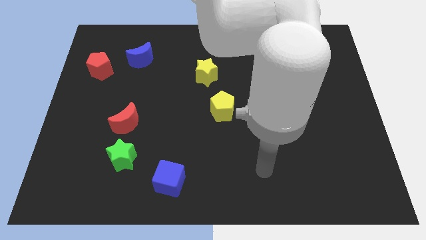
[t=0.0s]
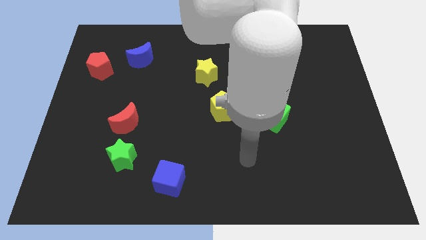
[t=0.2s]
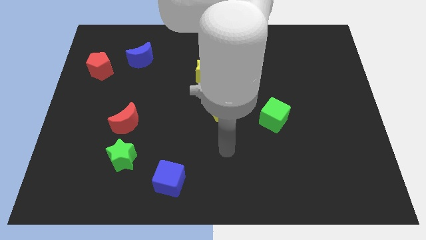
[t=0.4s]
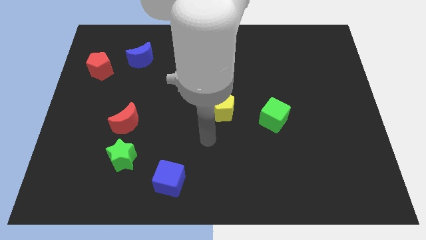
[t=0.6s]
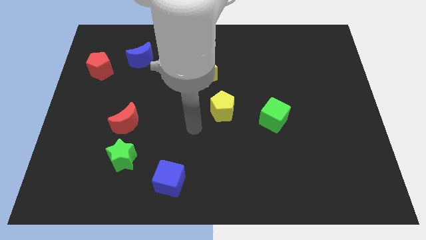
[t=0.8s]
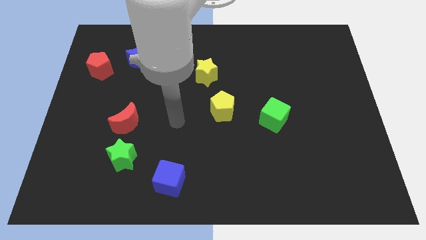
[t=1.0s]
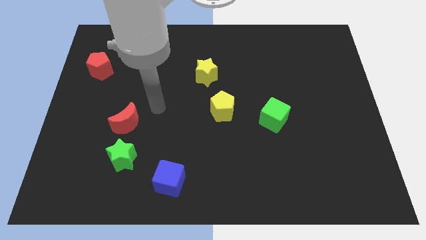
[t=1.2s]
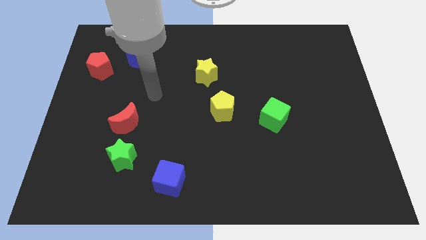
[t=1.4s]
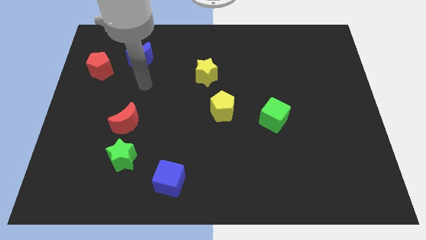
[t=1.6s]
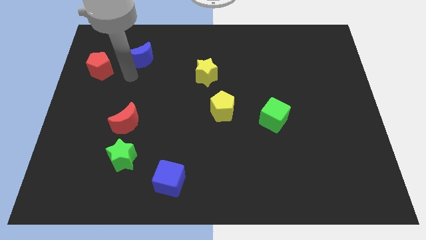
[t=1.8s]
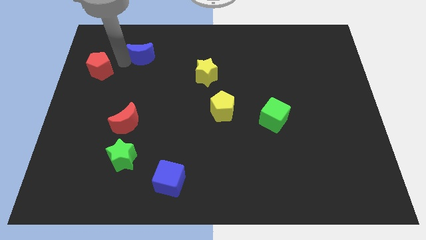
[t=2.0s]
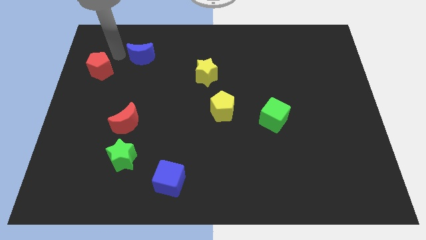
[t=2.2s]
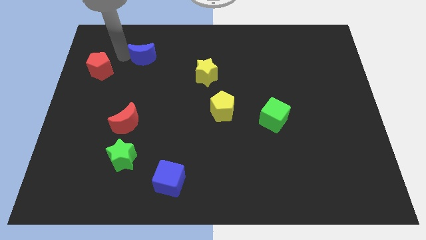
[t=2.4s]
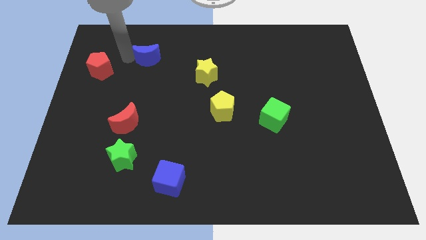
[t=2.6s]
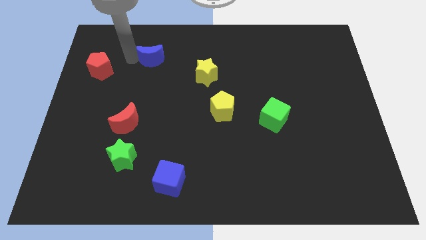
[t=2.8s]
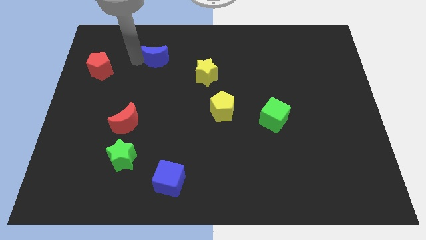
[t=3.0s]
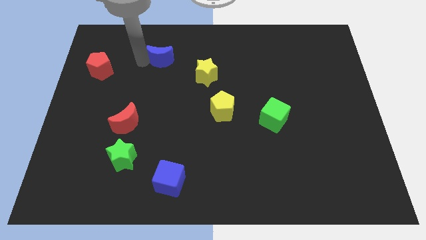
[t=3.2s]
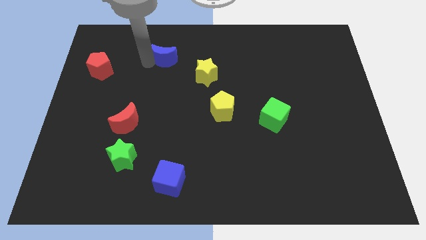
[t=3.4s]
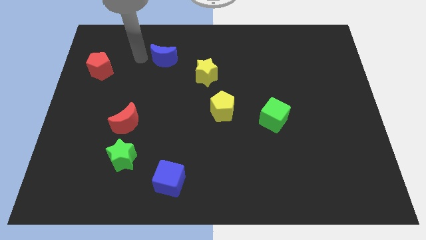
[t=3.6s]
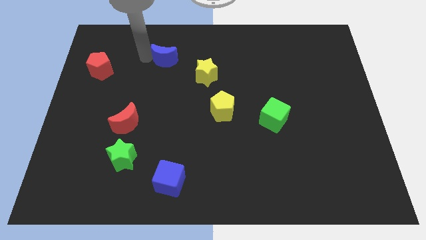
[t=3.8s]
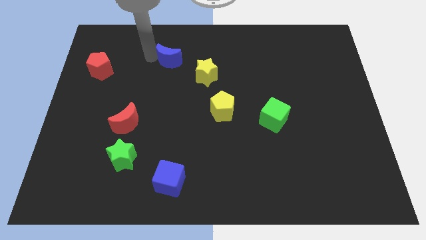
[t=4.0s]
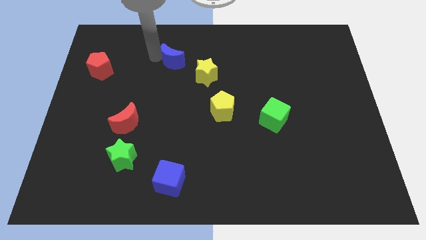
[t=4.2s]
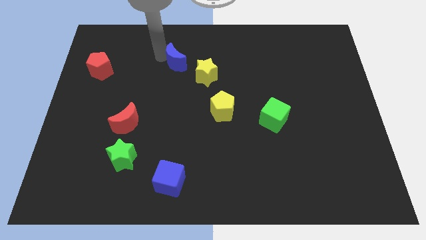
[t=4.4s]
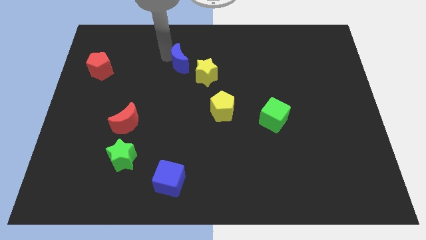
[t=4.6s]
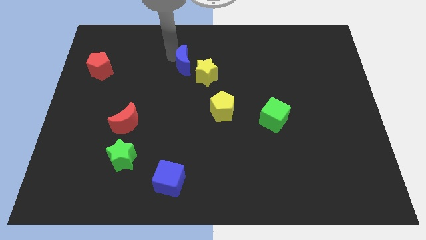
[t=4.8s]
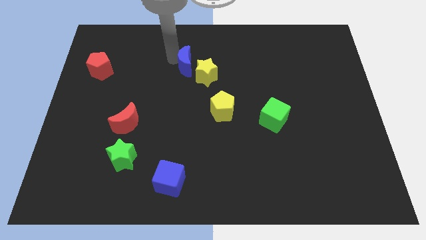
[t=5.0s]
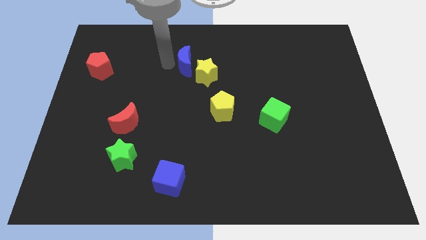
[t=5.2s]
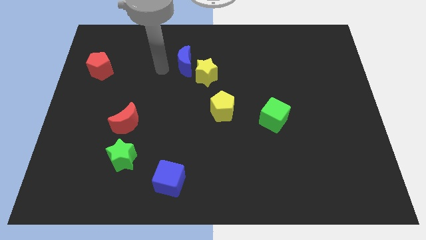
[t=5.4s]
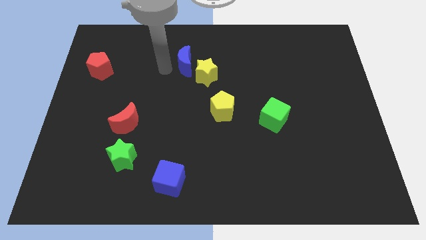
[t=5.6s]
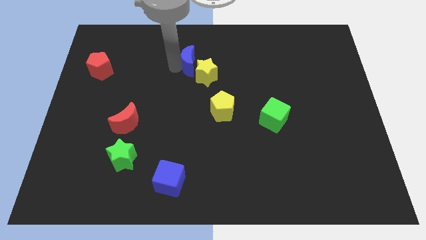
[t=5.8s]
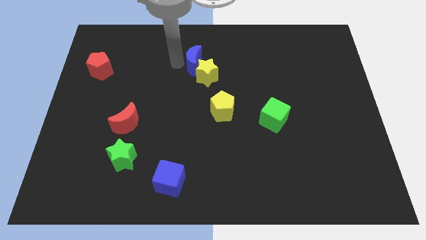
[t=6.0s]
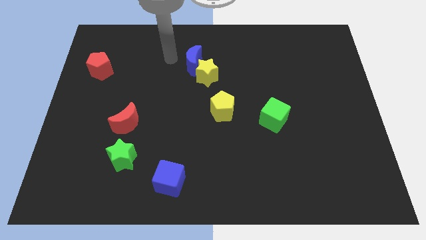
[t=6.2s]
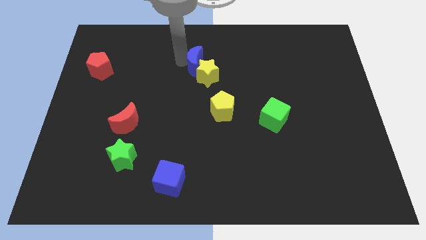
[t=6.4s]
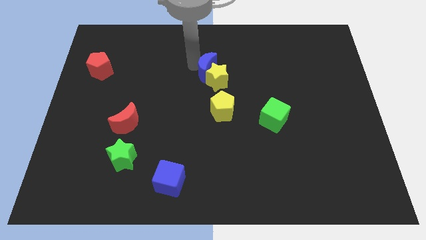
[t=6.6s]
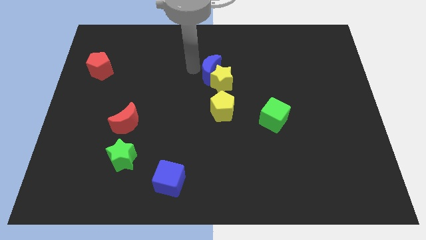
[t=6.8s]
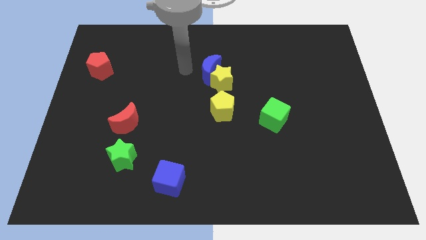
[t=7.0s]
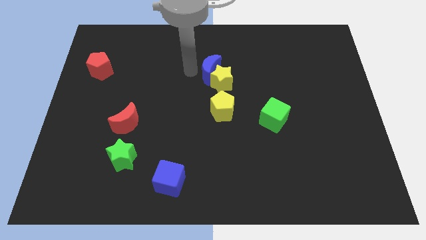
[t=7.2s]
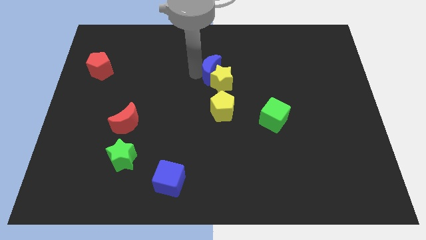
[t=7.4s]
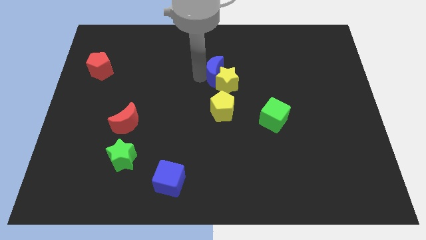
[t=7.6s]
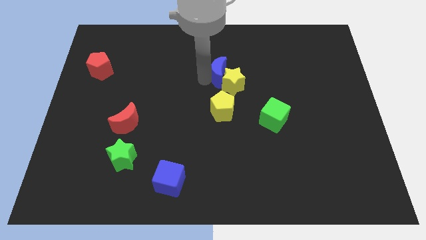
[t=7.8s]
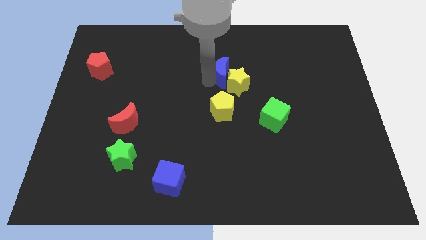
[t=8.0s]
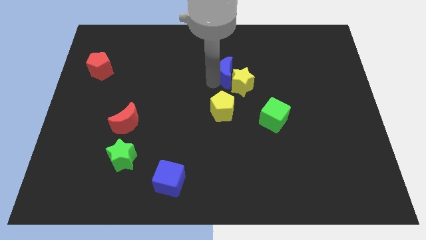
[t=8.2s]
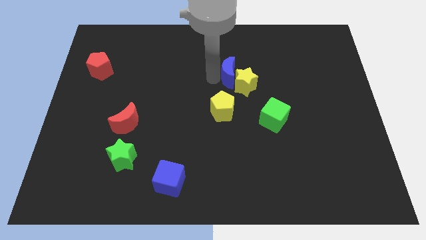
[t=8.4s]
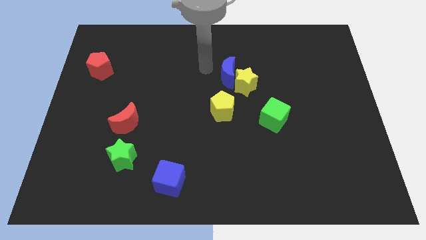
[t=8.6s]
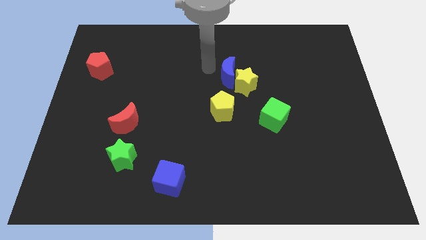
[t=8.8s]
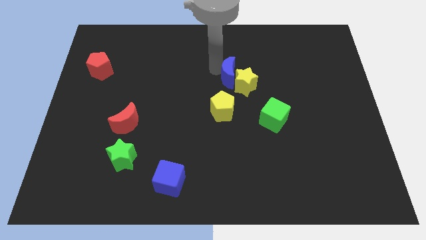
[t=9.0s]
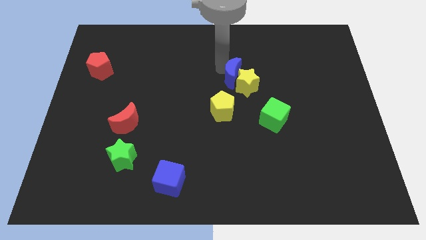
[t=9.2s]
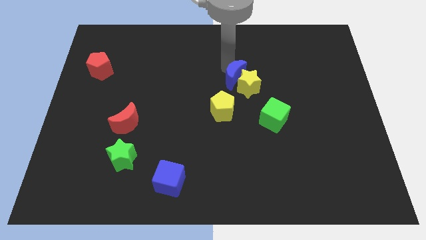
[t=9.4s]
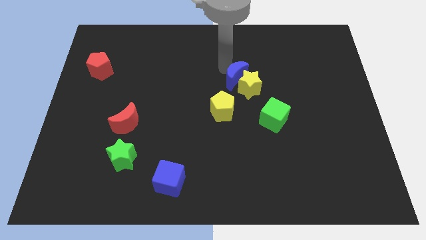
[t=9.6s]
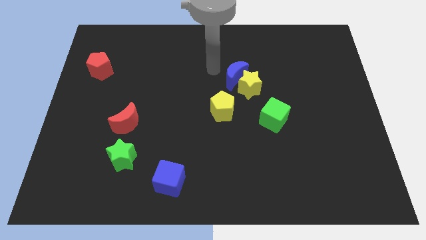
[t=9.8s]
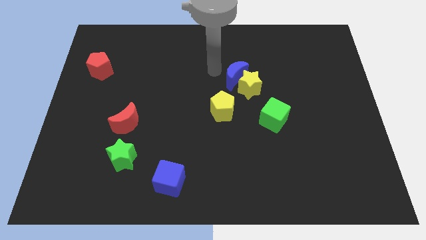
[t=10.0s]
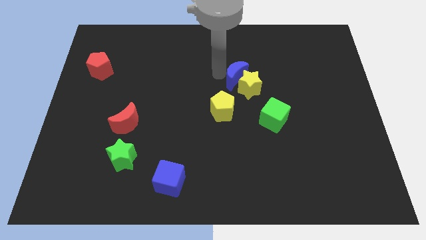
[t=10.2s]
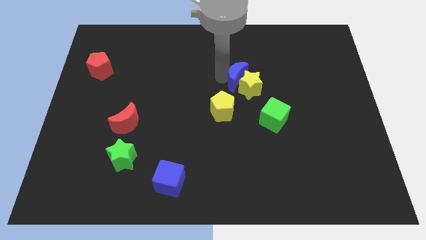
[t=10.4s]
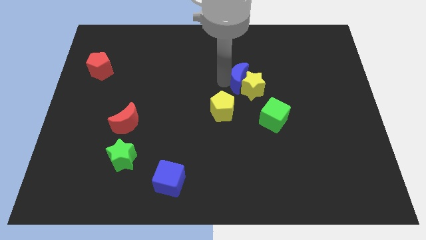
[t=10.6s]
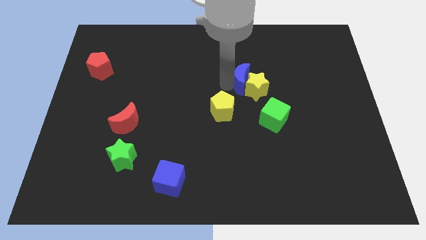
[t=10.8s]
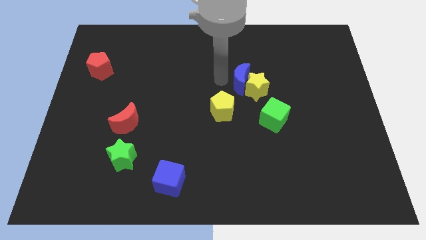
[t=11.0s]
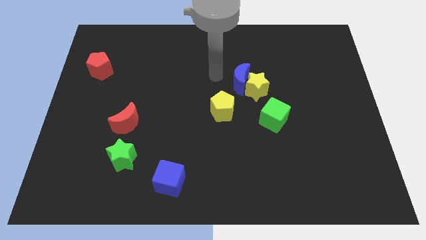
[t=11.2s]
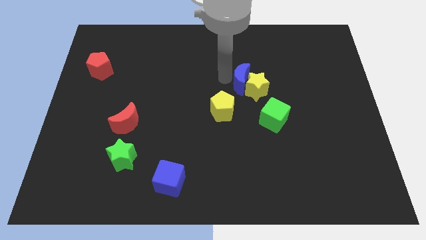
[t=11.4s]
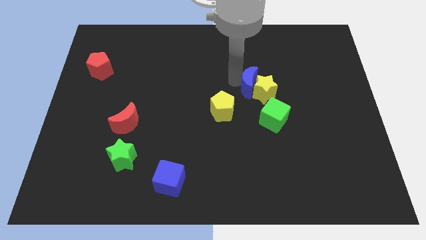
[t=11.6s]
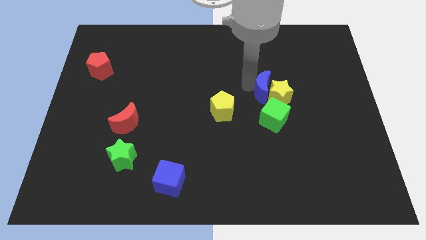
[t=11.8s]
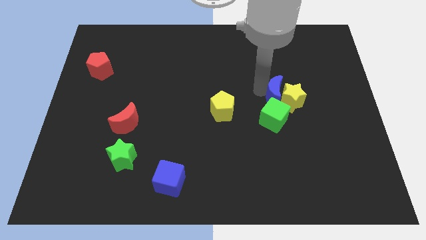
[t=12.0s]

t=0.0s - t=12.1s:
move the blue moon to the top right side of the green cube
